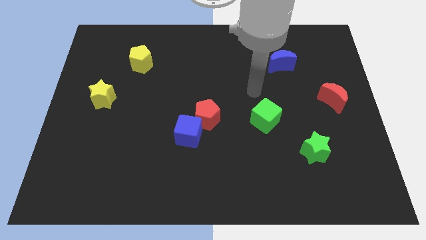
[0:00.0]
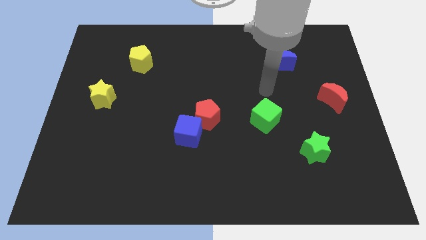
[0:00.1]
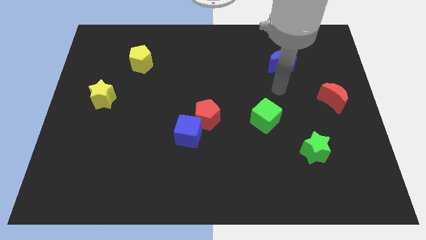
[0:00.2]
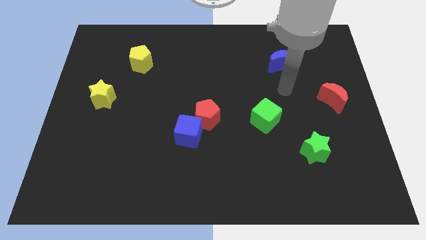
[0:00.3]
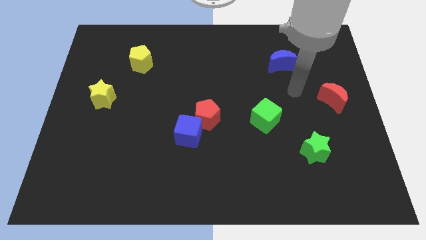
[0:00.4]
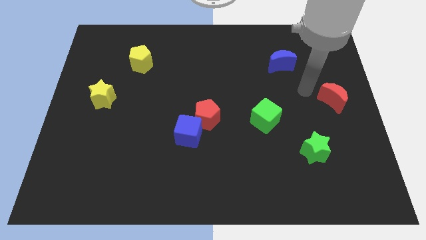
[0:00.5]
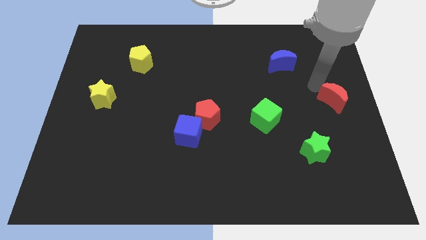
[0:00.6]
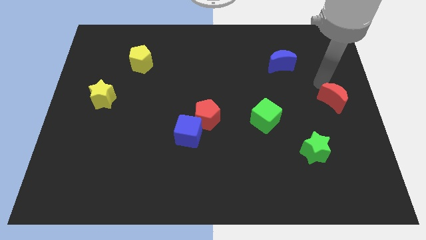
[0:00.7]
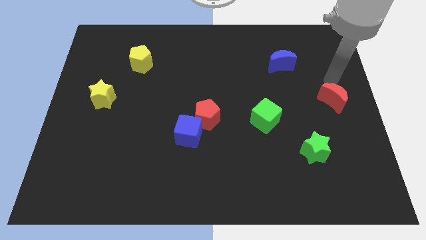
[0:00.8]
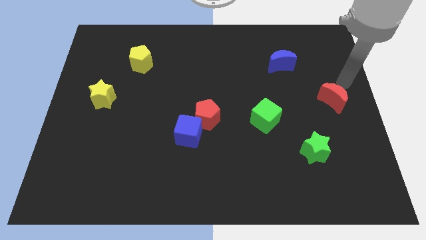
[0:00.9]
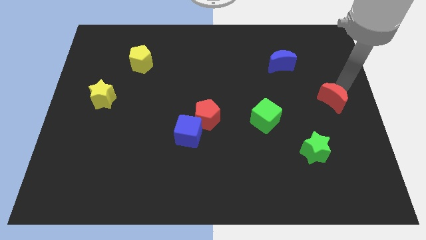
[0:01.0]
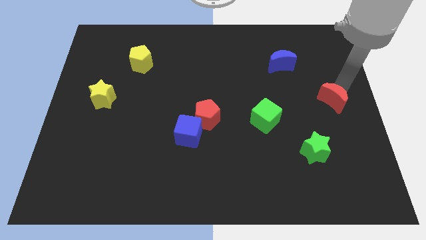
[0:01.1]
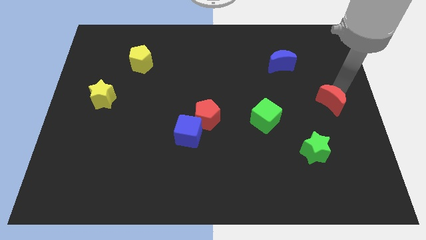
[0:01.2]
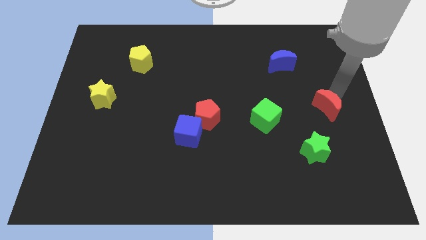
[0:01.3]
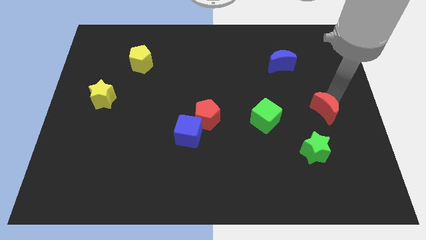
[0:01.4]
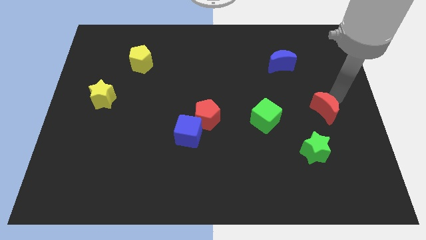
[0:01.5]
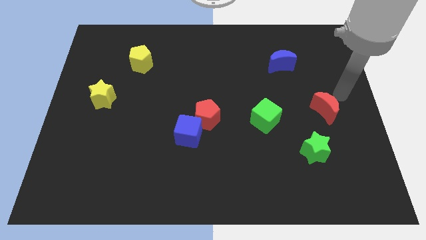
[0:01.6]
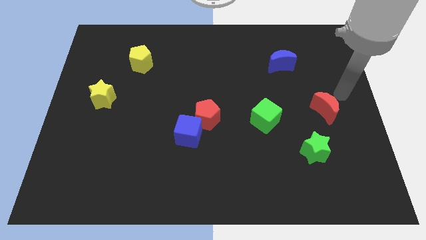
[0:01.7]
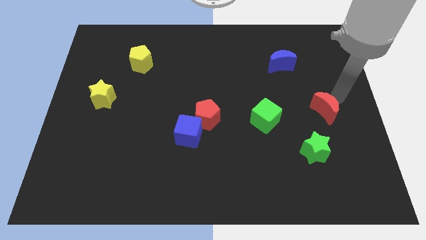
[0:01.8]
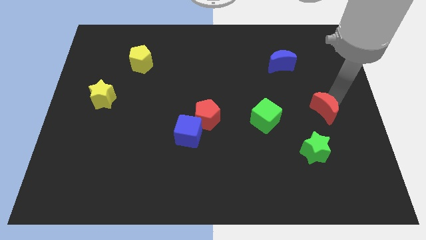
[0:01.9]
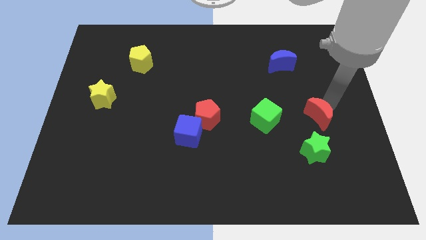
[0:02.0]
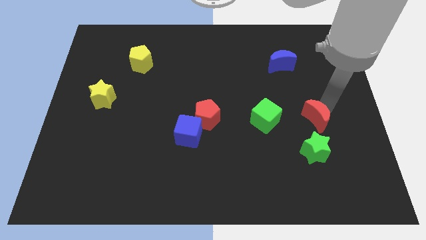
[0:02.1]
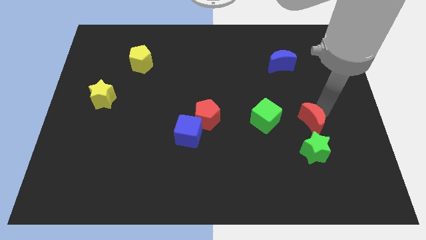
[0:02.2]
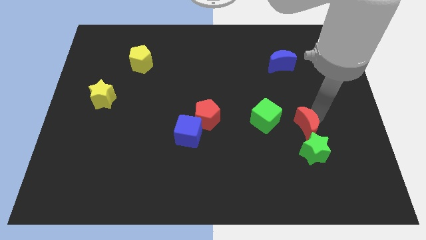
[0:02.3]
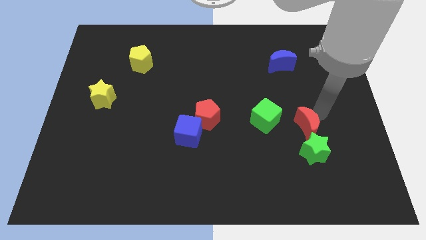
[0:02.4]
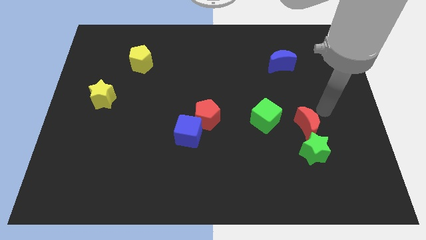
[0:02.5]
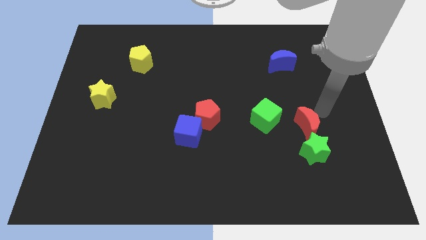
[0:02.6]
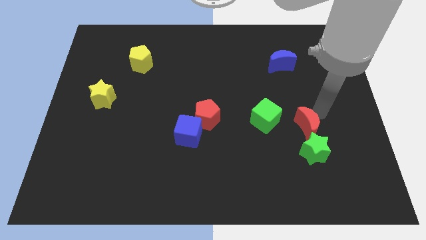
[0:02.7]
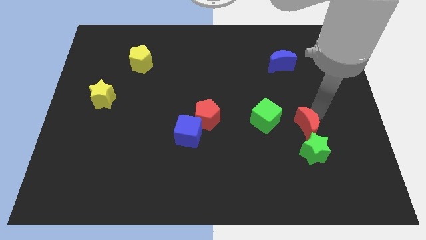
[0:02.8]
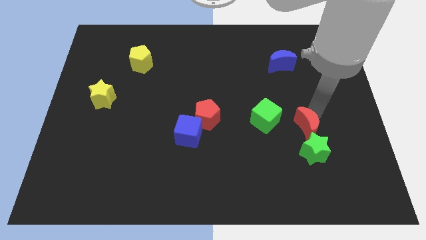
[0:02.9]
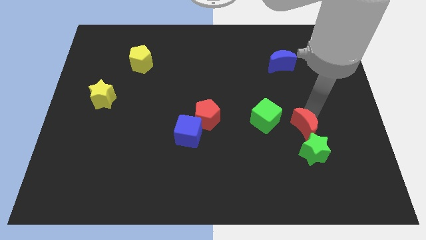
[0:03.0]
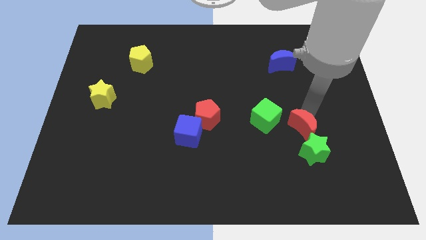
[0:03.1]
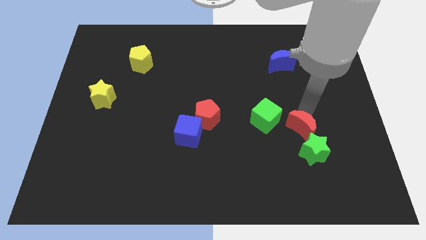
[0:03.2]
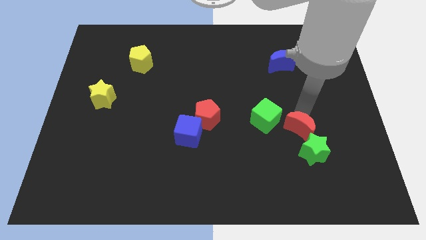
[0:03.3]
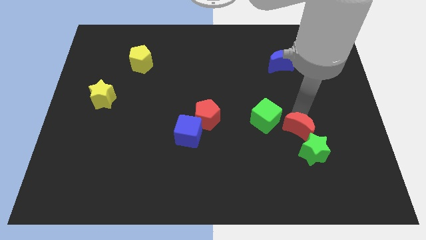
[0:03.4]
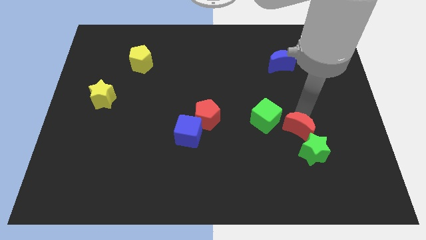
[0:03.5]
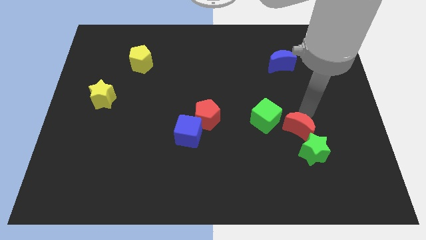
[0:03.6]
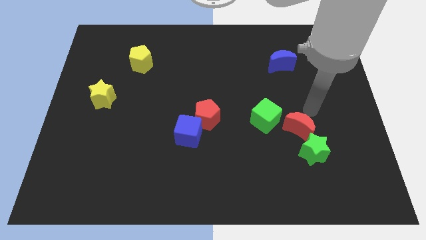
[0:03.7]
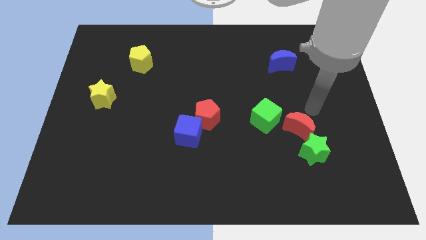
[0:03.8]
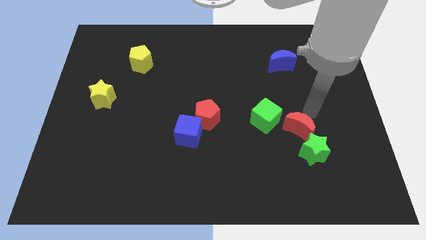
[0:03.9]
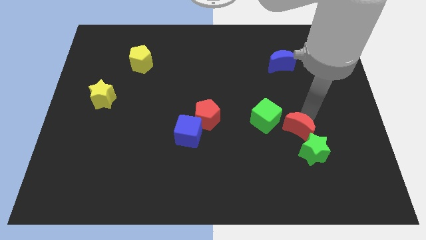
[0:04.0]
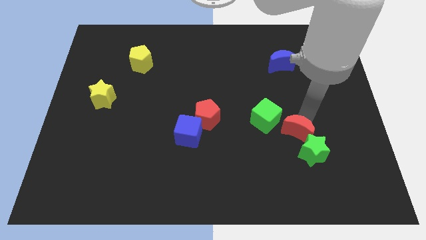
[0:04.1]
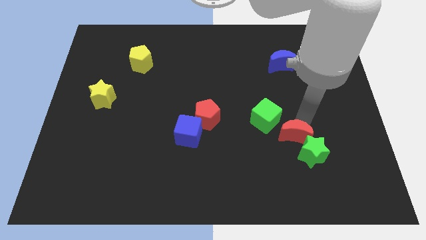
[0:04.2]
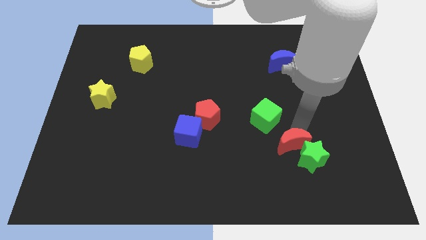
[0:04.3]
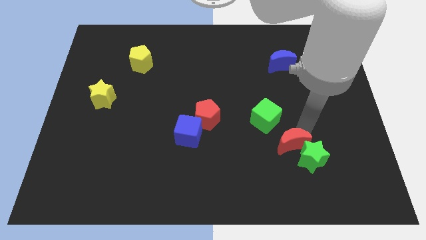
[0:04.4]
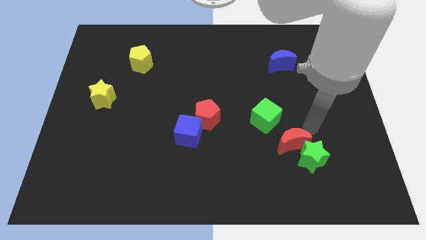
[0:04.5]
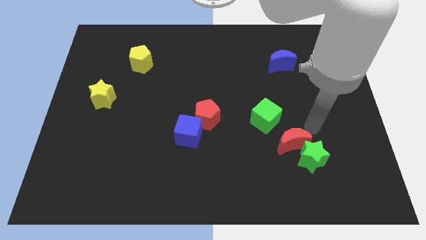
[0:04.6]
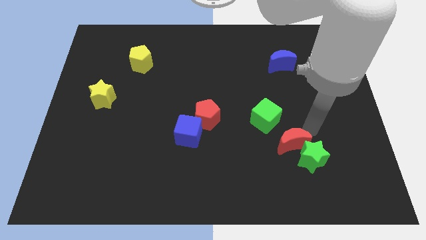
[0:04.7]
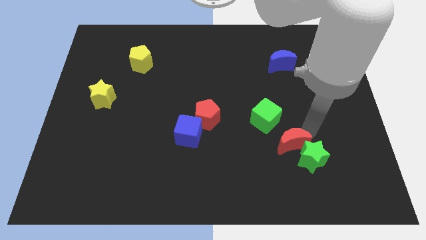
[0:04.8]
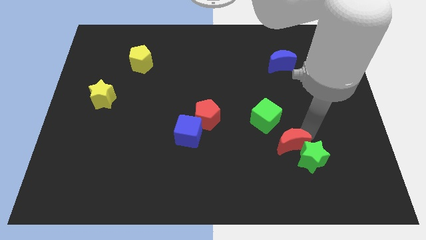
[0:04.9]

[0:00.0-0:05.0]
put the red moon below the green cube

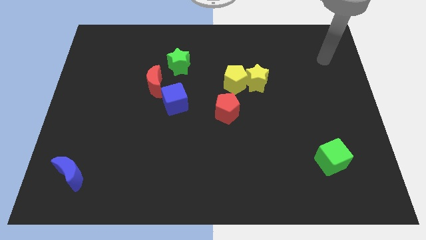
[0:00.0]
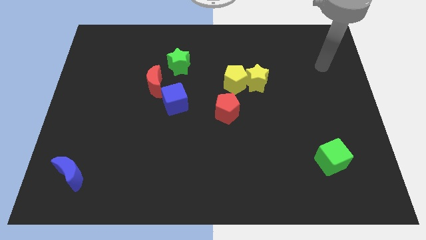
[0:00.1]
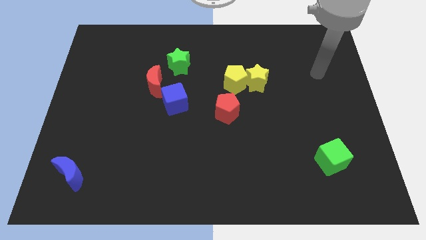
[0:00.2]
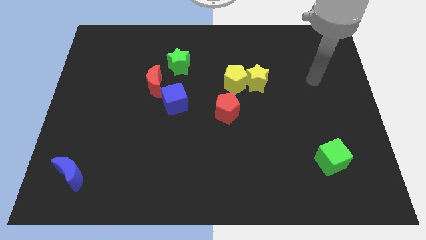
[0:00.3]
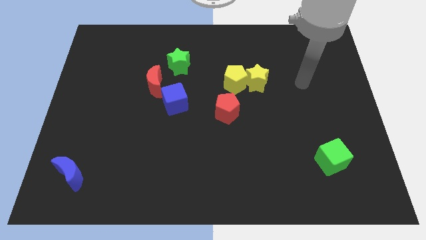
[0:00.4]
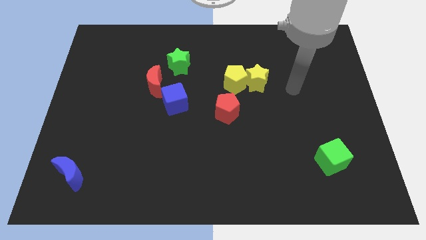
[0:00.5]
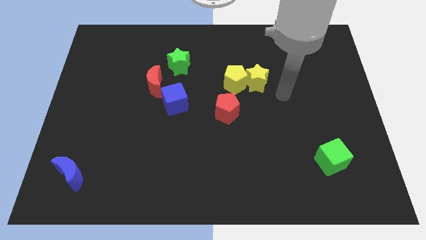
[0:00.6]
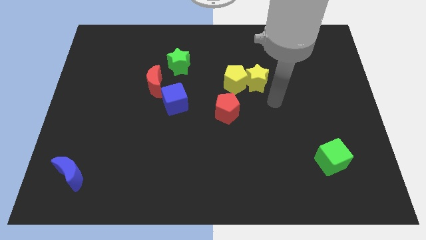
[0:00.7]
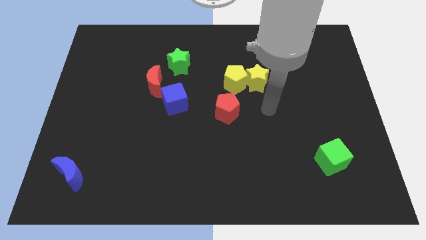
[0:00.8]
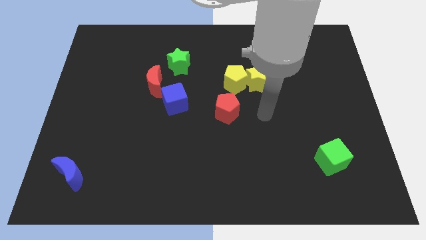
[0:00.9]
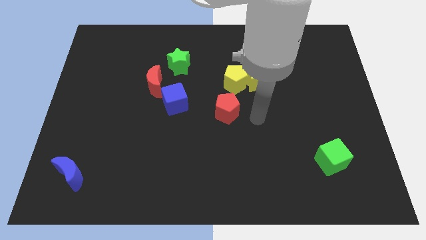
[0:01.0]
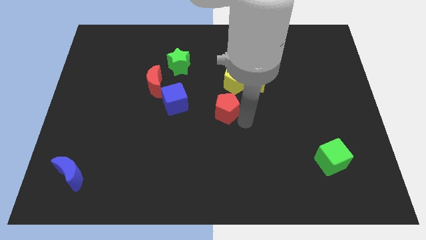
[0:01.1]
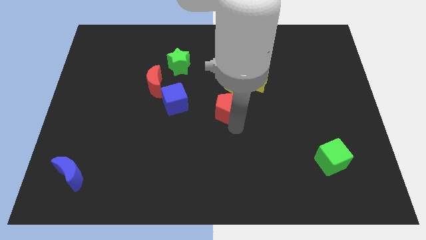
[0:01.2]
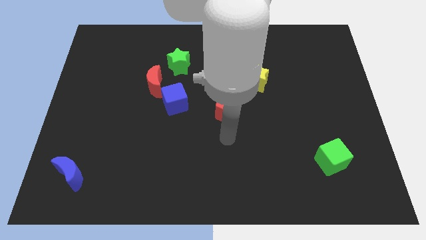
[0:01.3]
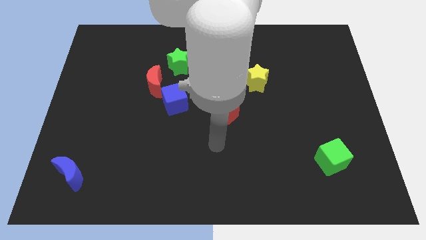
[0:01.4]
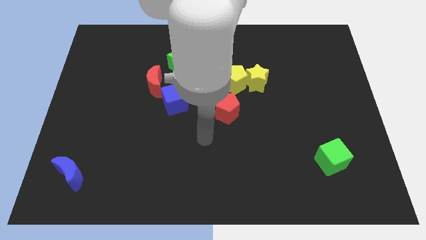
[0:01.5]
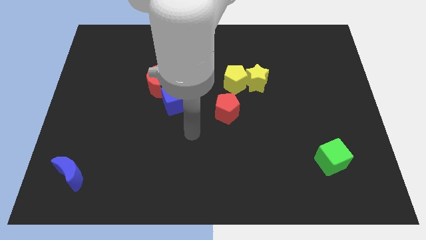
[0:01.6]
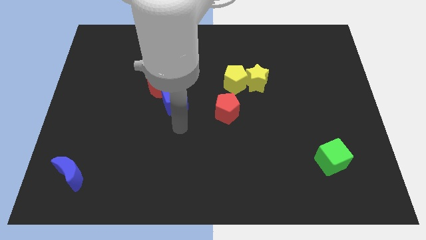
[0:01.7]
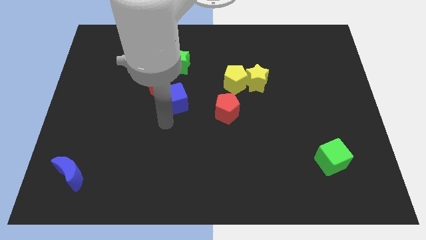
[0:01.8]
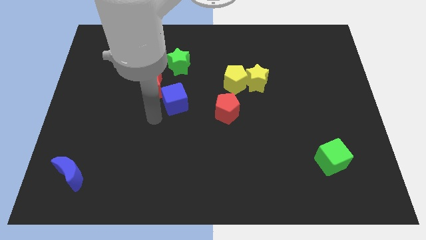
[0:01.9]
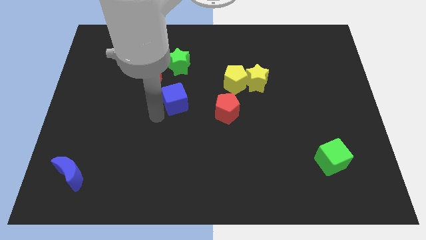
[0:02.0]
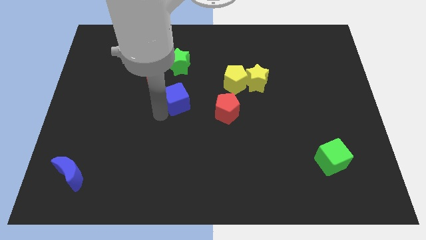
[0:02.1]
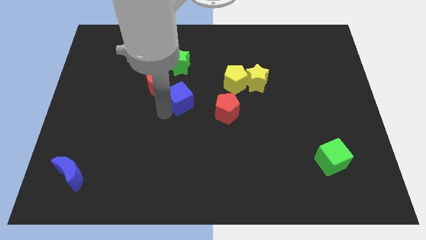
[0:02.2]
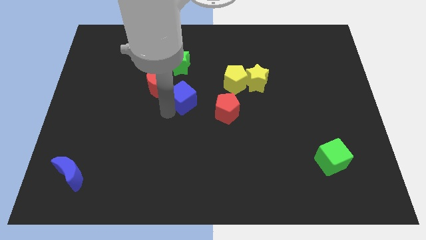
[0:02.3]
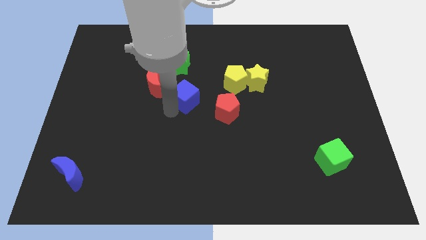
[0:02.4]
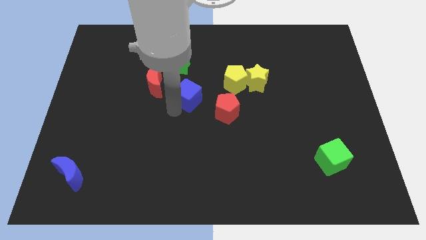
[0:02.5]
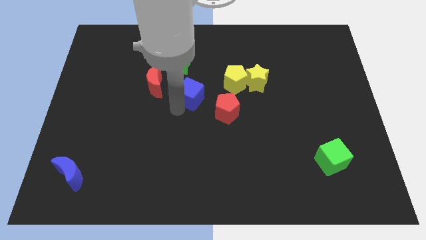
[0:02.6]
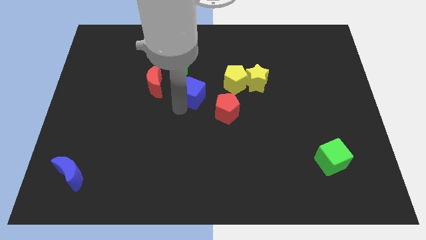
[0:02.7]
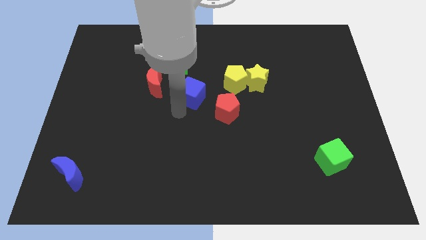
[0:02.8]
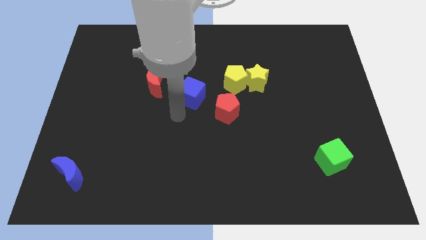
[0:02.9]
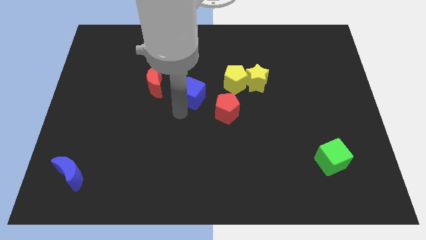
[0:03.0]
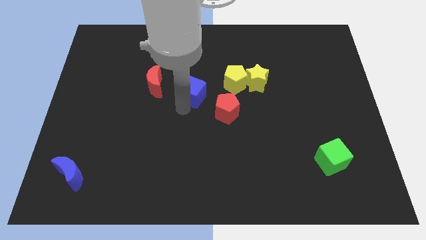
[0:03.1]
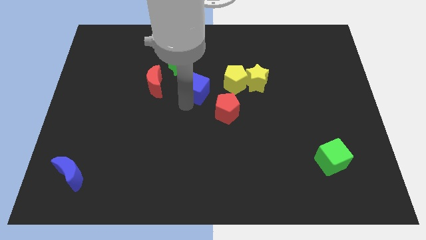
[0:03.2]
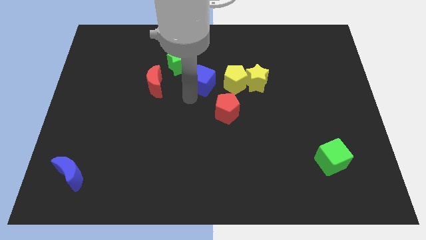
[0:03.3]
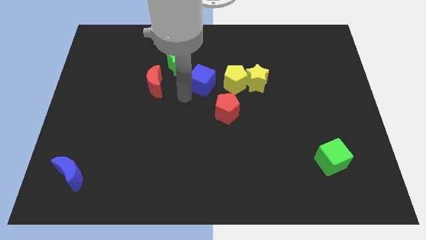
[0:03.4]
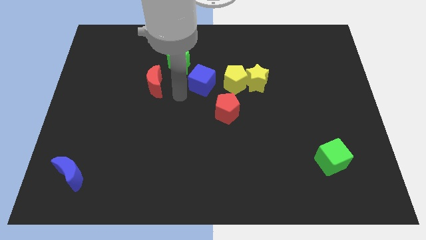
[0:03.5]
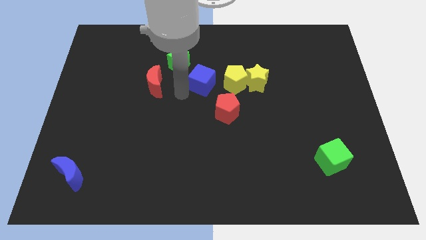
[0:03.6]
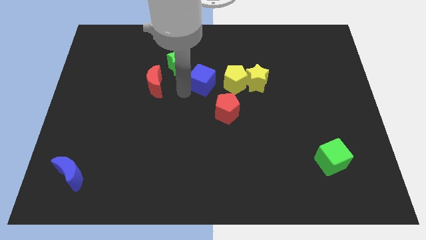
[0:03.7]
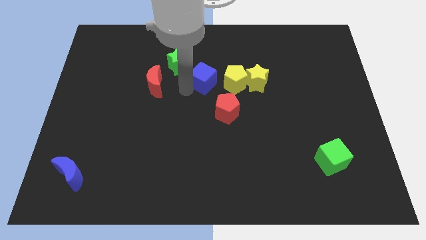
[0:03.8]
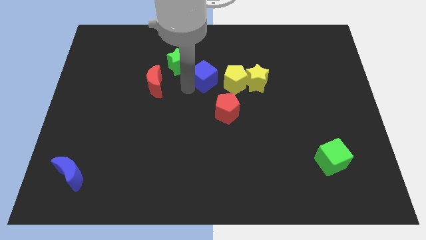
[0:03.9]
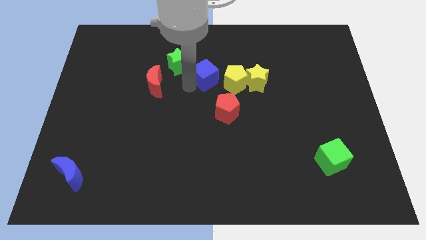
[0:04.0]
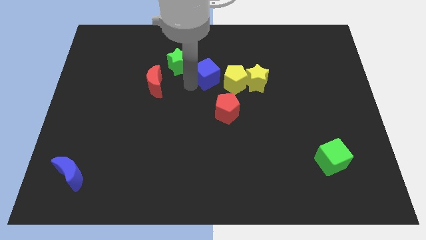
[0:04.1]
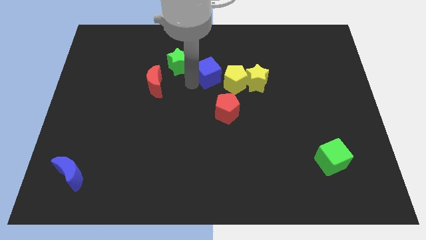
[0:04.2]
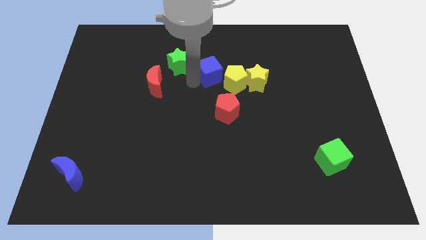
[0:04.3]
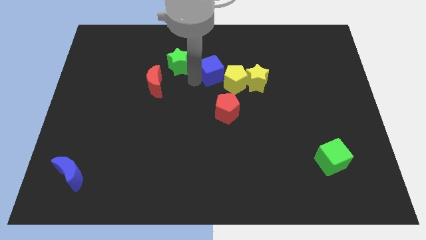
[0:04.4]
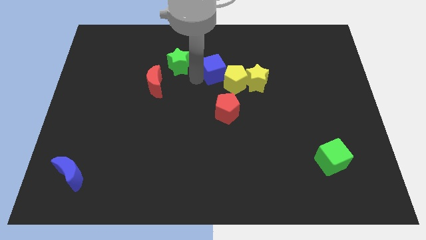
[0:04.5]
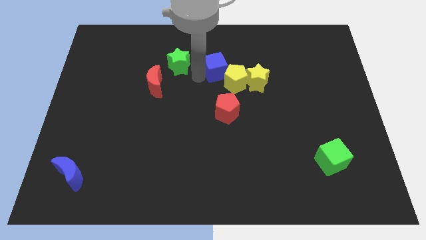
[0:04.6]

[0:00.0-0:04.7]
push the blue cube to the top left side of the yellow star
